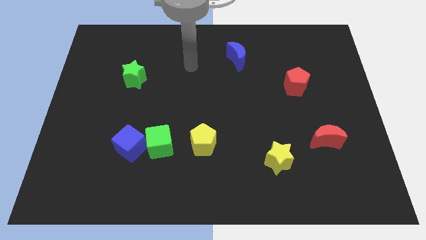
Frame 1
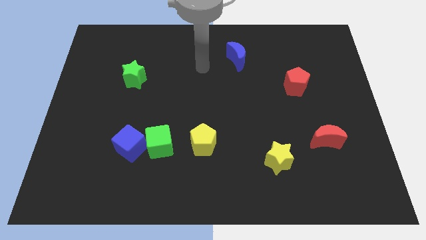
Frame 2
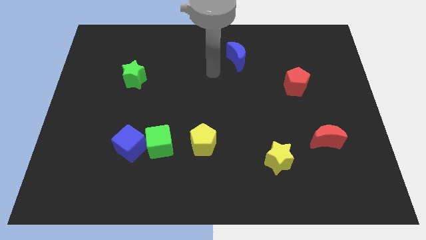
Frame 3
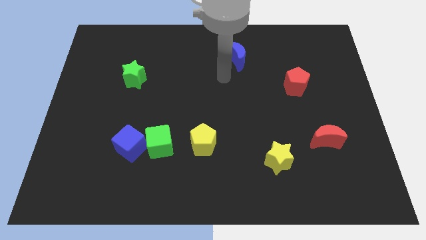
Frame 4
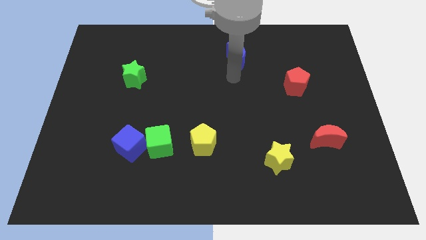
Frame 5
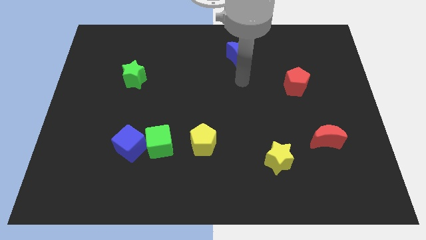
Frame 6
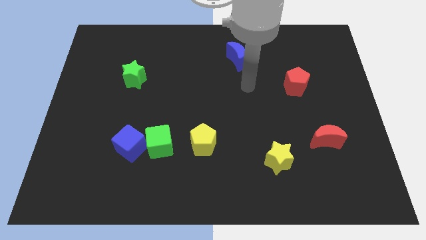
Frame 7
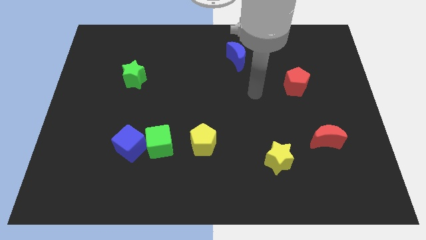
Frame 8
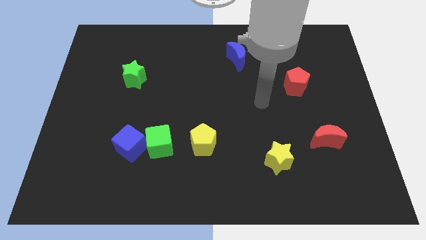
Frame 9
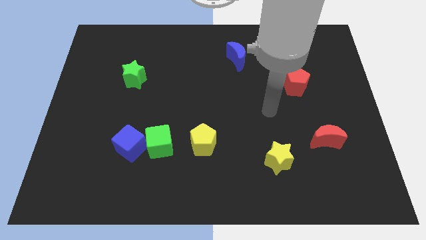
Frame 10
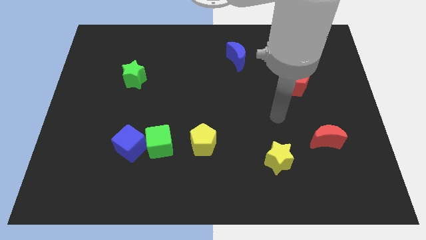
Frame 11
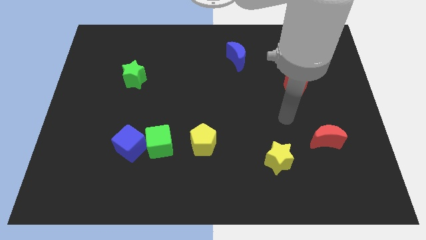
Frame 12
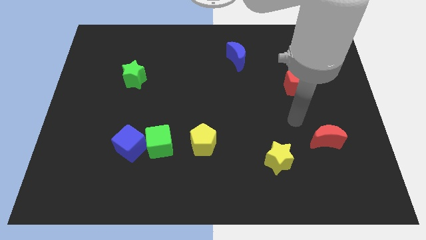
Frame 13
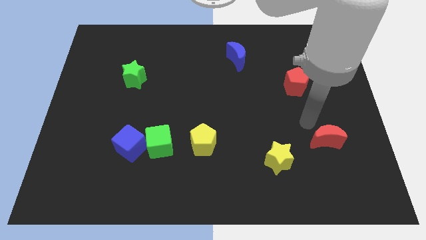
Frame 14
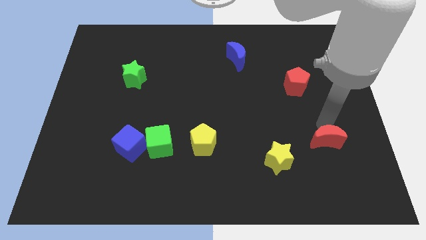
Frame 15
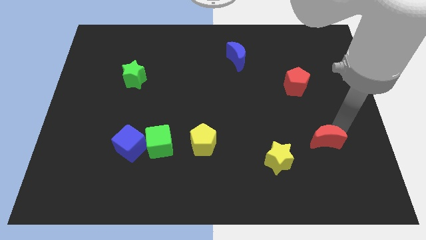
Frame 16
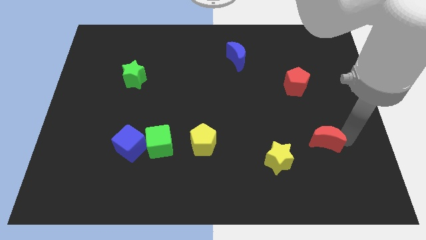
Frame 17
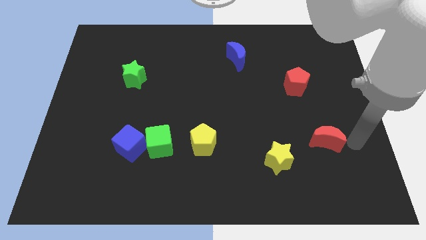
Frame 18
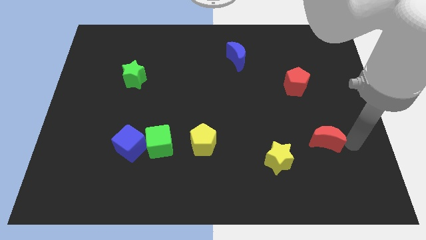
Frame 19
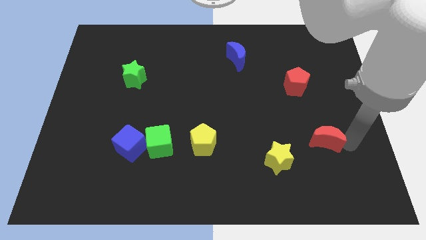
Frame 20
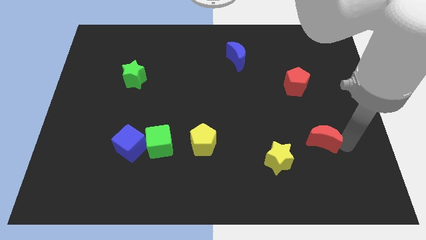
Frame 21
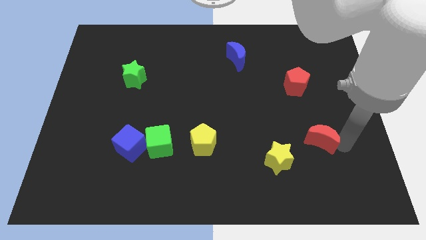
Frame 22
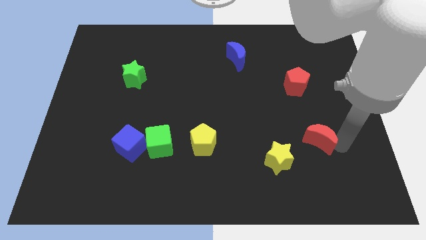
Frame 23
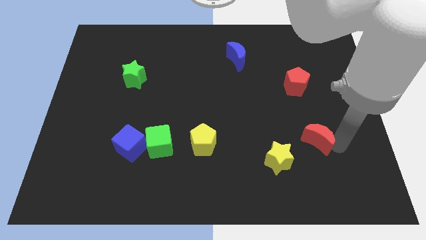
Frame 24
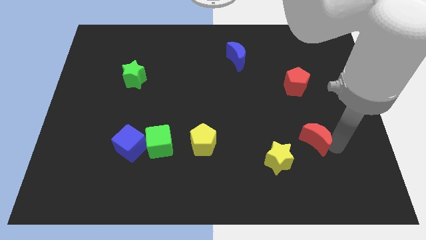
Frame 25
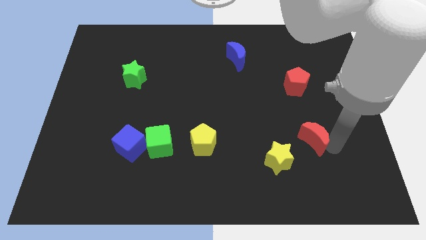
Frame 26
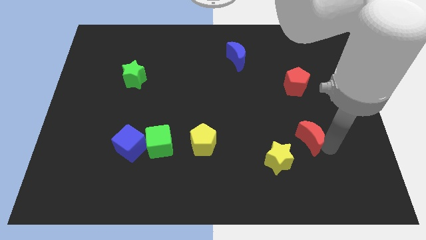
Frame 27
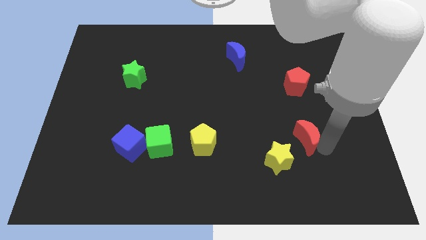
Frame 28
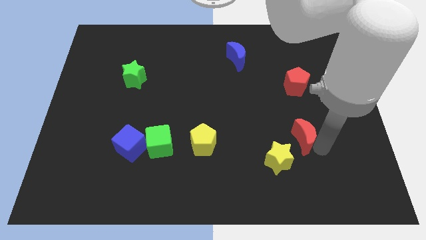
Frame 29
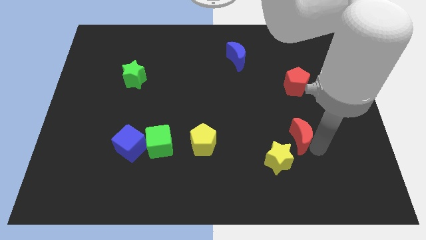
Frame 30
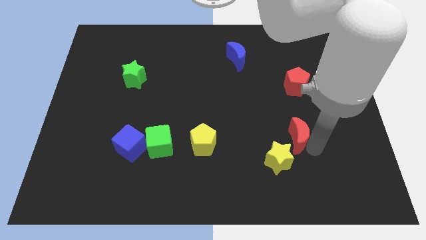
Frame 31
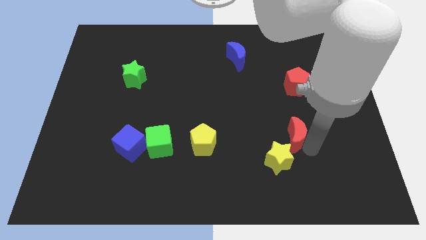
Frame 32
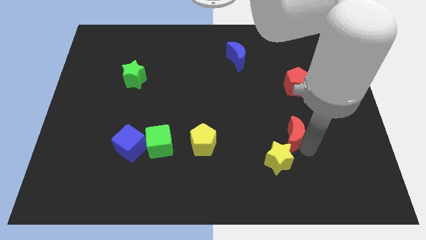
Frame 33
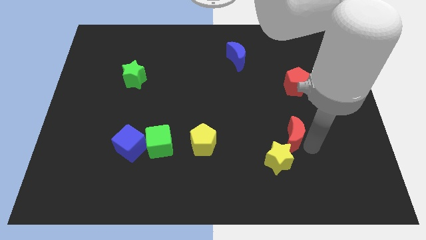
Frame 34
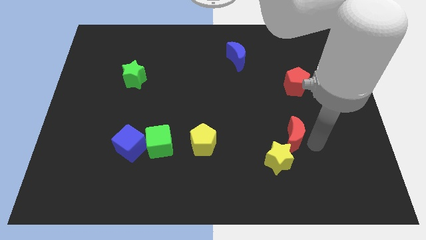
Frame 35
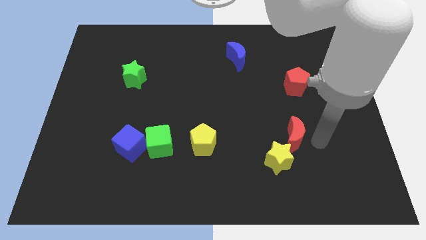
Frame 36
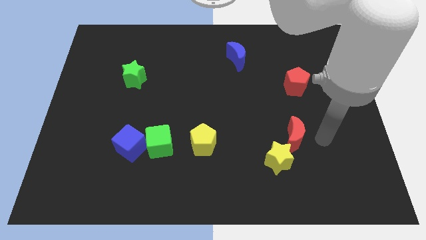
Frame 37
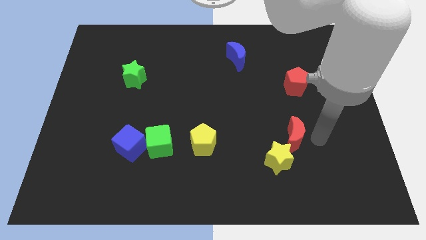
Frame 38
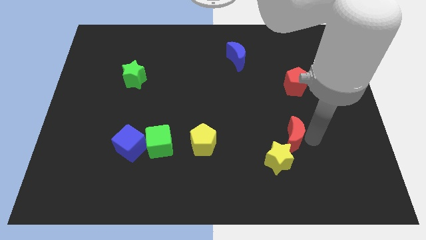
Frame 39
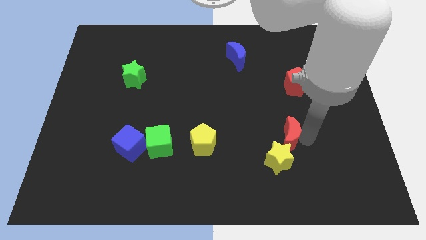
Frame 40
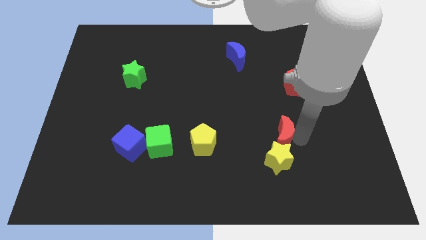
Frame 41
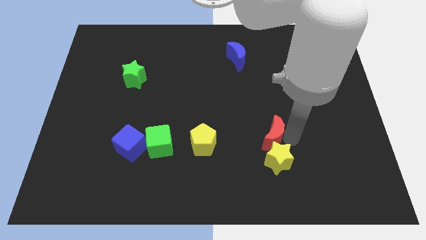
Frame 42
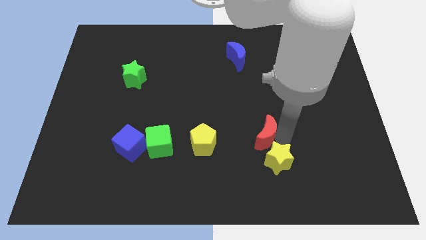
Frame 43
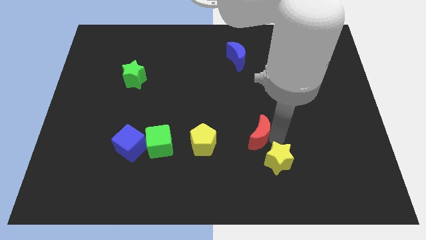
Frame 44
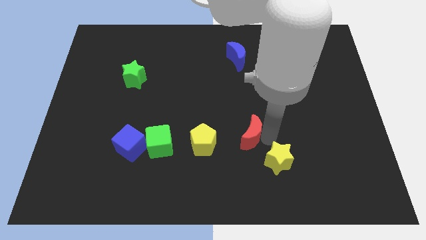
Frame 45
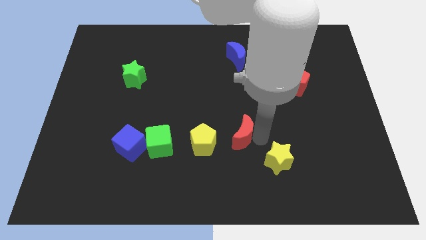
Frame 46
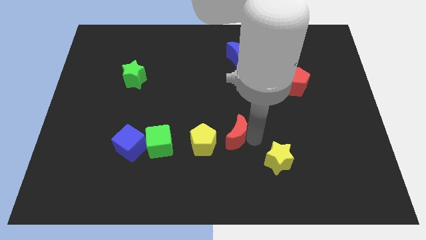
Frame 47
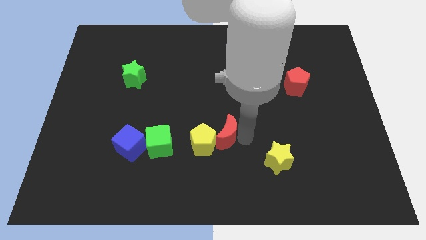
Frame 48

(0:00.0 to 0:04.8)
slide the red moon to the left

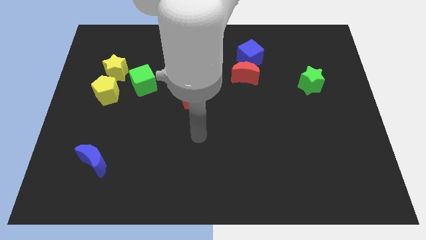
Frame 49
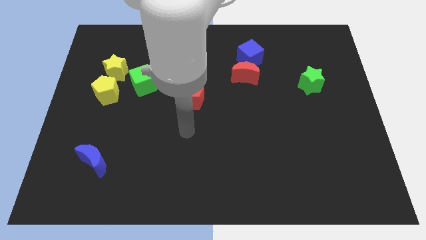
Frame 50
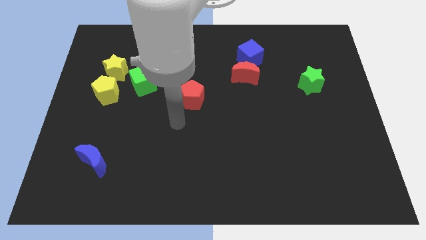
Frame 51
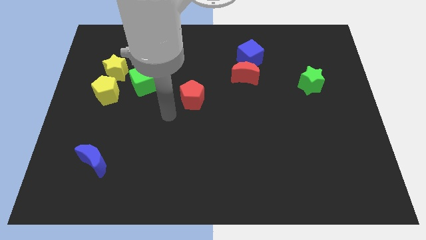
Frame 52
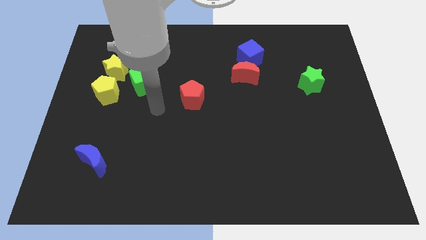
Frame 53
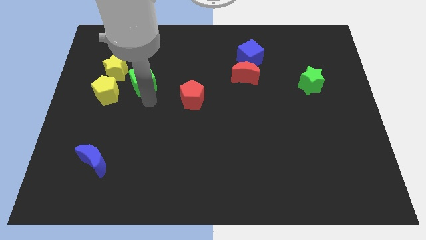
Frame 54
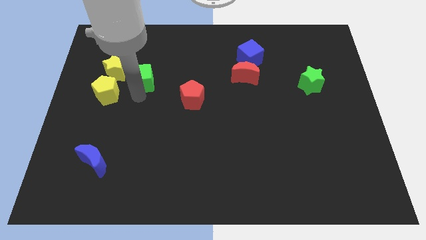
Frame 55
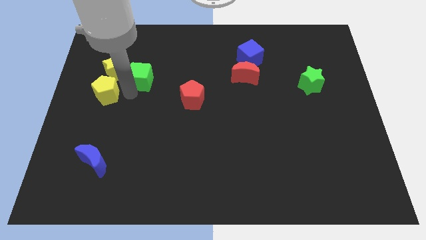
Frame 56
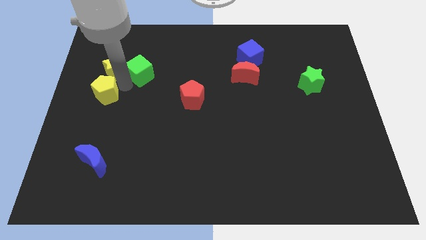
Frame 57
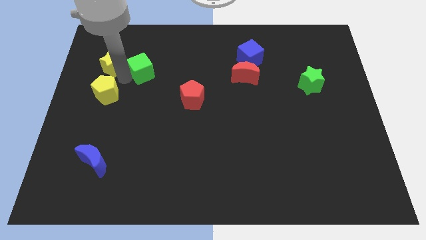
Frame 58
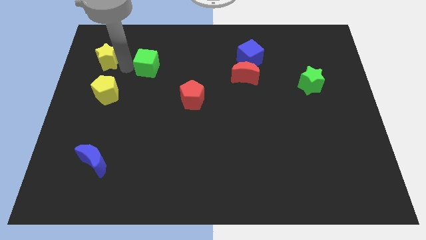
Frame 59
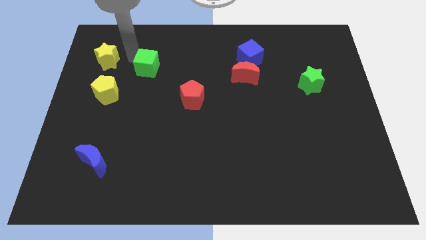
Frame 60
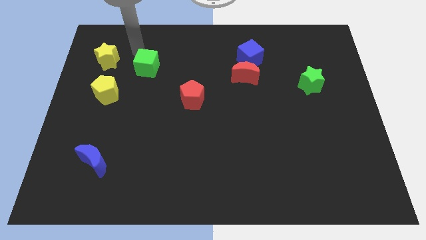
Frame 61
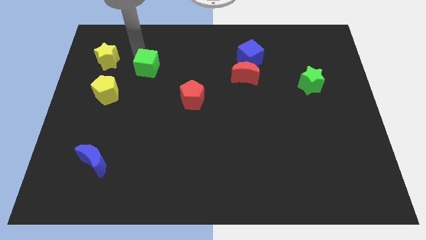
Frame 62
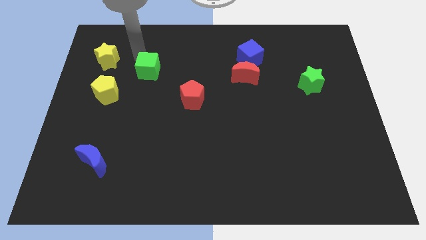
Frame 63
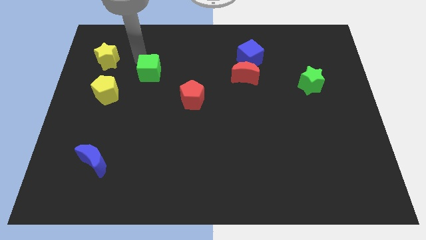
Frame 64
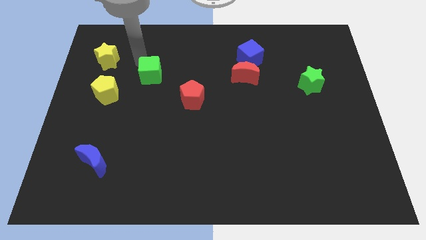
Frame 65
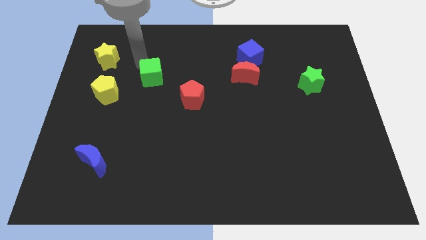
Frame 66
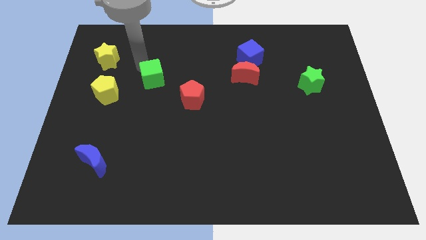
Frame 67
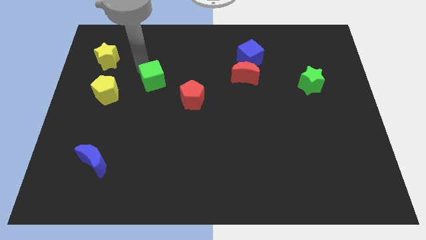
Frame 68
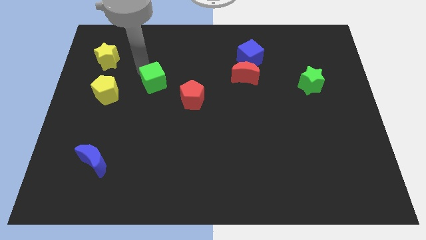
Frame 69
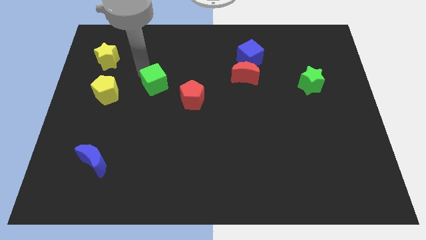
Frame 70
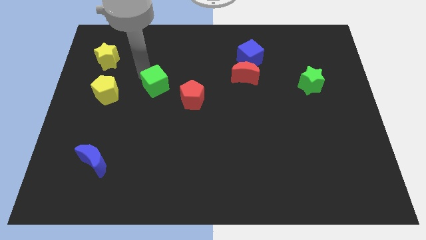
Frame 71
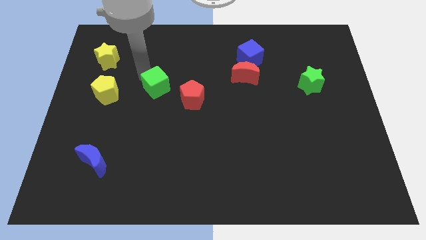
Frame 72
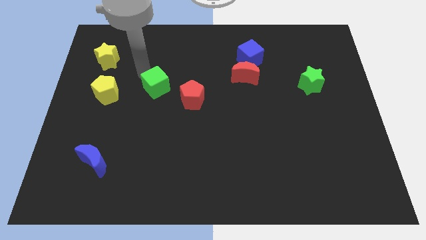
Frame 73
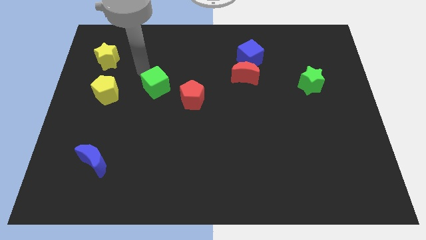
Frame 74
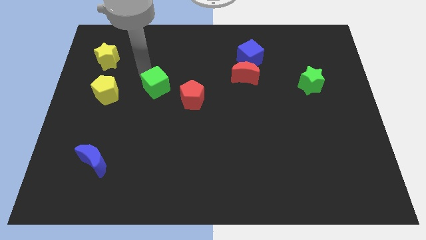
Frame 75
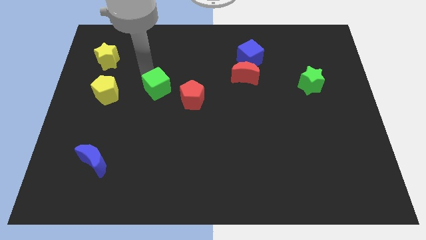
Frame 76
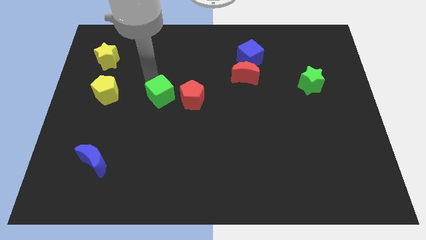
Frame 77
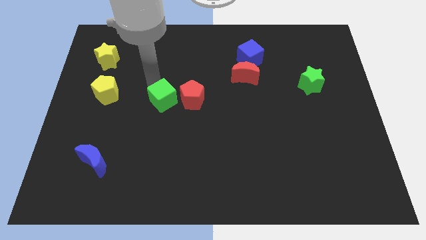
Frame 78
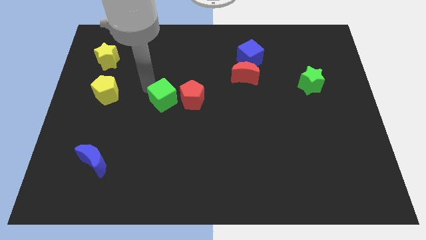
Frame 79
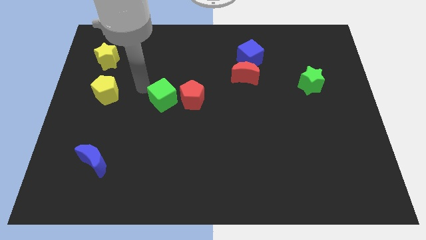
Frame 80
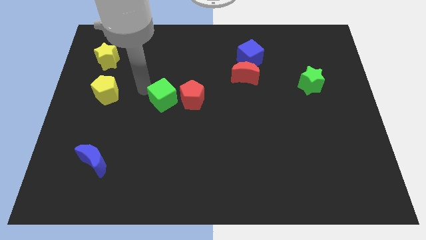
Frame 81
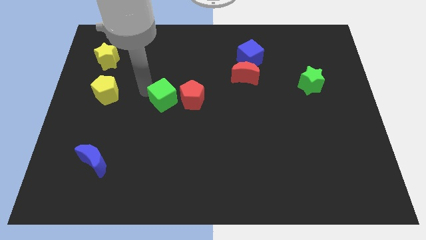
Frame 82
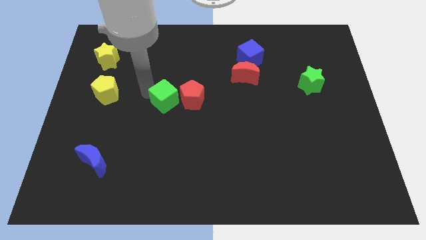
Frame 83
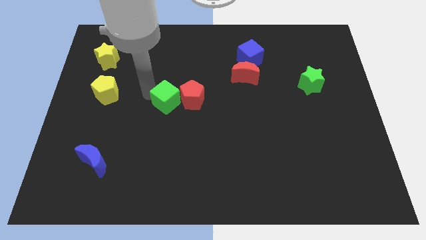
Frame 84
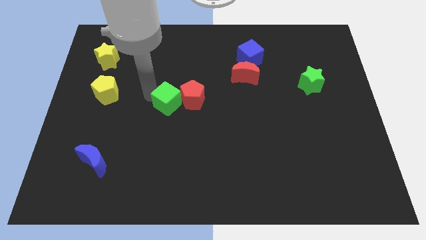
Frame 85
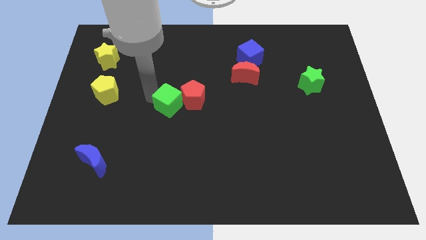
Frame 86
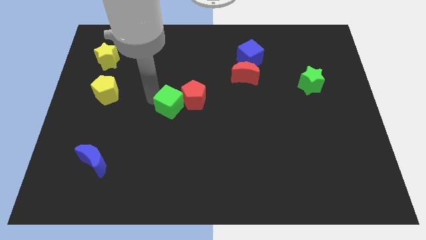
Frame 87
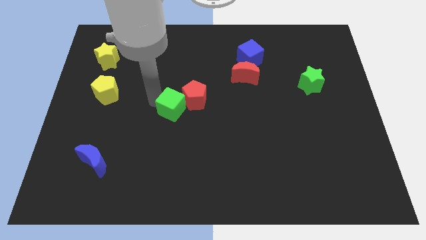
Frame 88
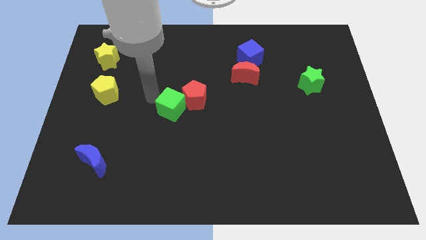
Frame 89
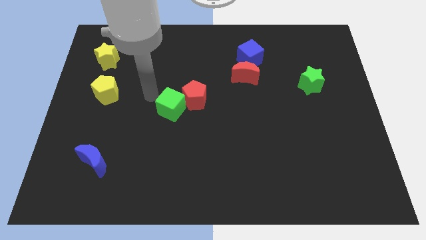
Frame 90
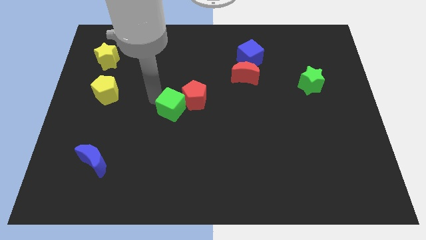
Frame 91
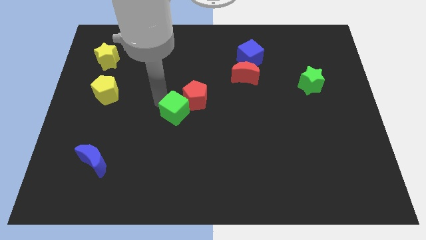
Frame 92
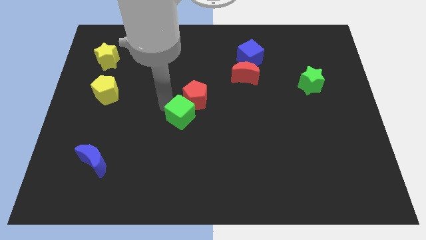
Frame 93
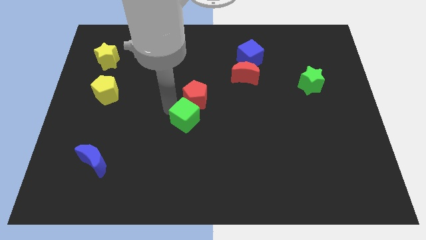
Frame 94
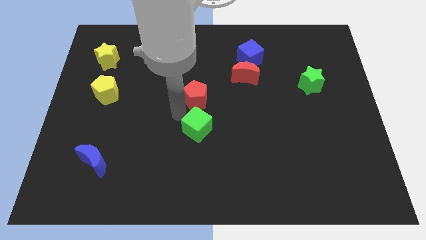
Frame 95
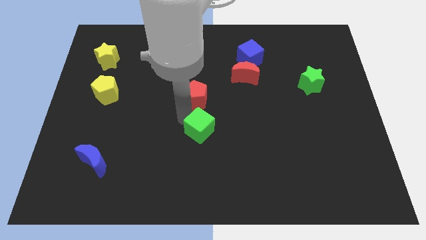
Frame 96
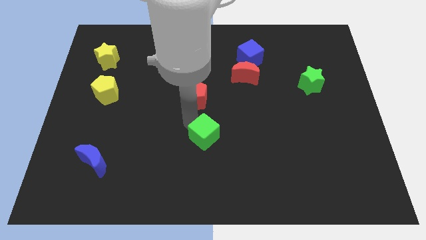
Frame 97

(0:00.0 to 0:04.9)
move the green cube diagonally downwards and to the right
